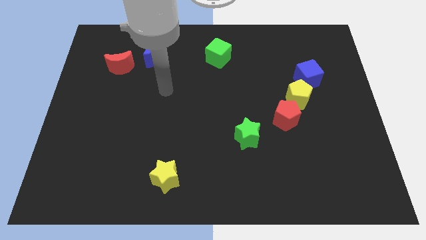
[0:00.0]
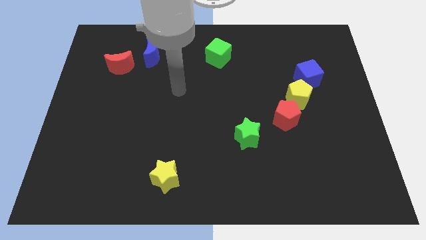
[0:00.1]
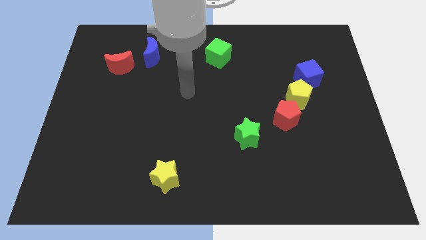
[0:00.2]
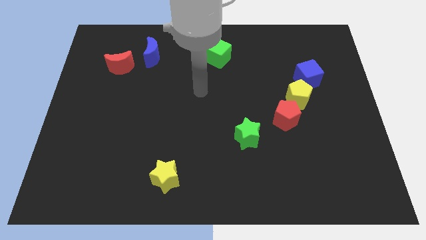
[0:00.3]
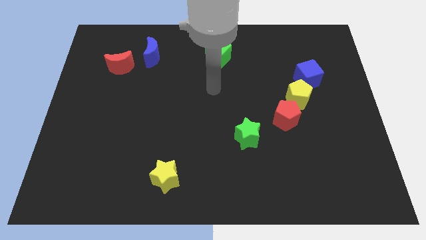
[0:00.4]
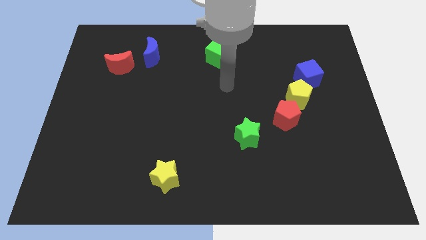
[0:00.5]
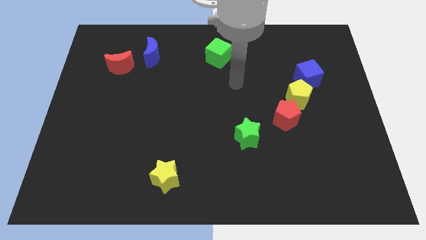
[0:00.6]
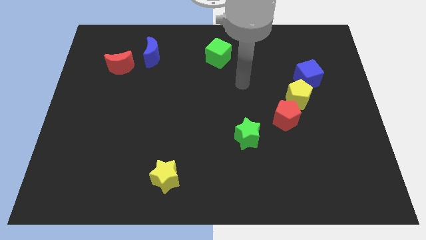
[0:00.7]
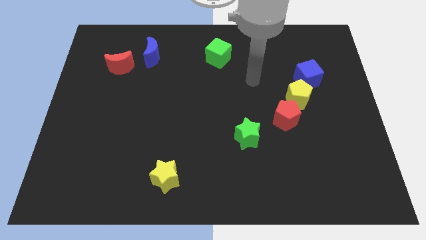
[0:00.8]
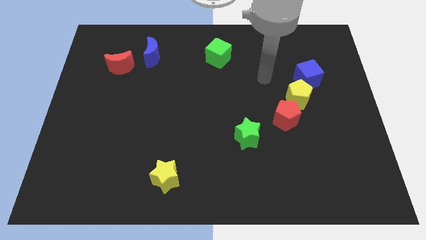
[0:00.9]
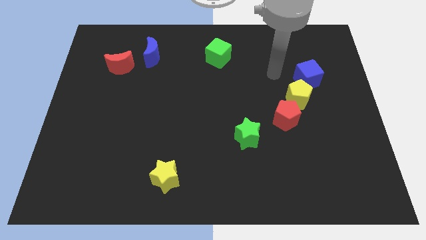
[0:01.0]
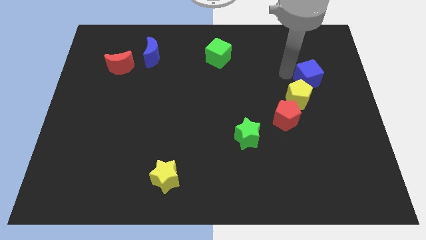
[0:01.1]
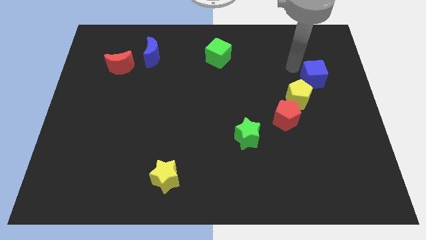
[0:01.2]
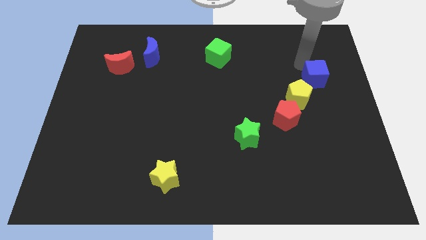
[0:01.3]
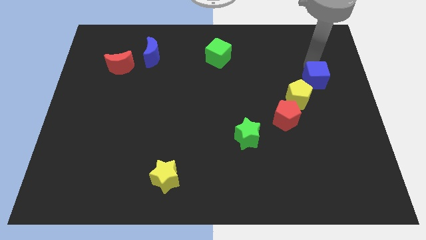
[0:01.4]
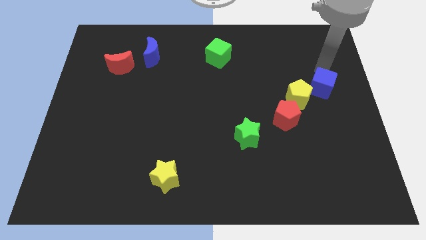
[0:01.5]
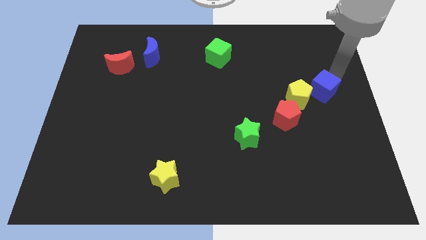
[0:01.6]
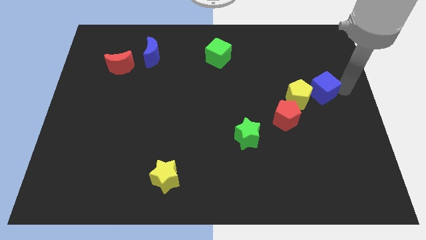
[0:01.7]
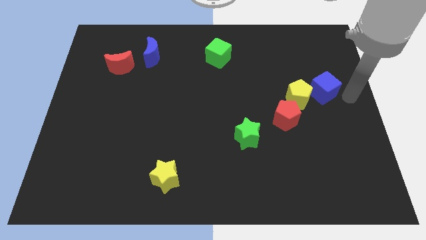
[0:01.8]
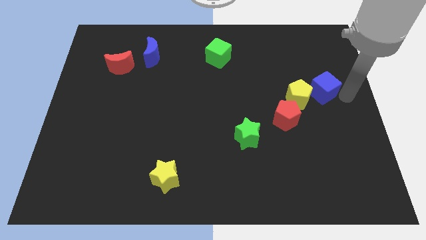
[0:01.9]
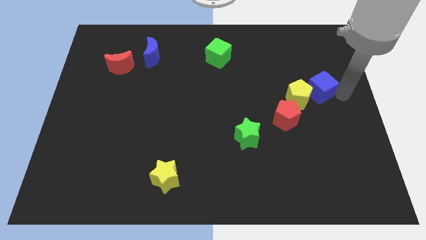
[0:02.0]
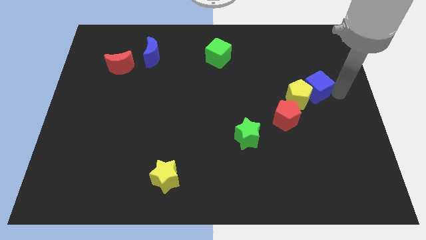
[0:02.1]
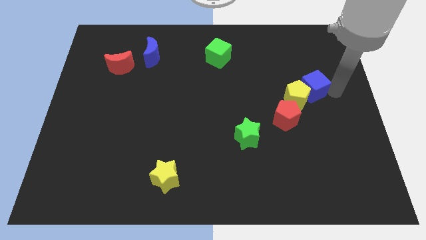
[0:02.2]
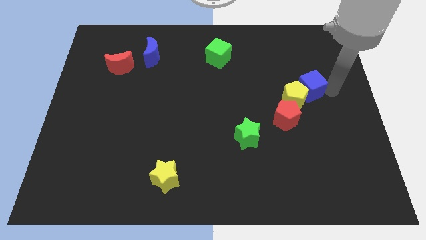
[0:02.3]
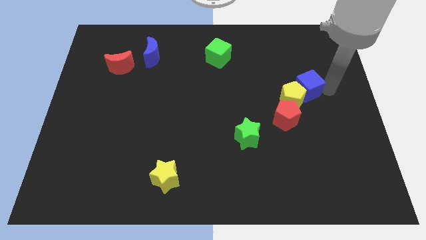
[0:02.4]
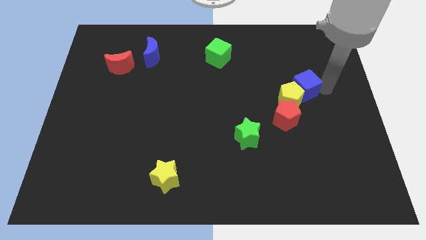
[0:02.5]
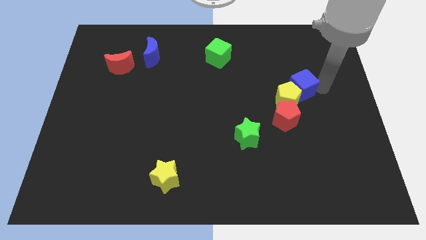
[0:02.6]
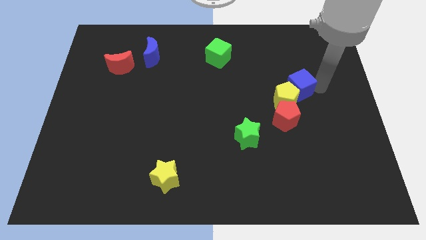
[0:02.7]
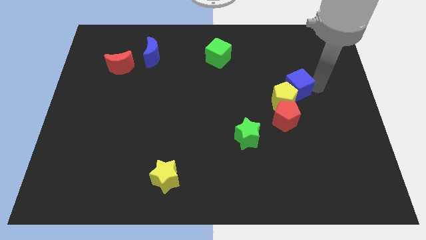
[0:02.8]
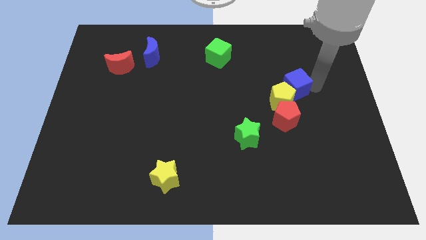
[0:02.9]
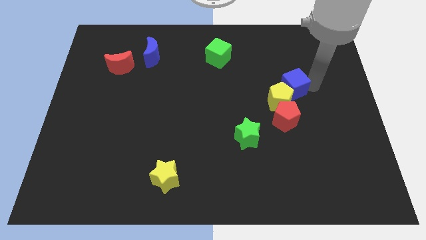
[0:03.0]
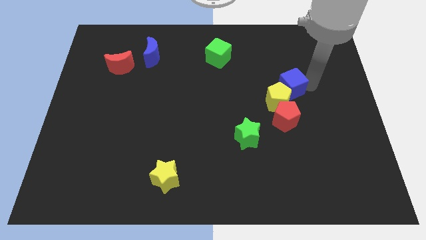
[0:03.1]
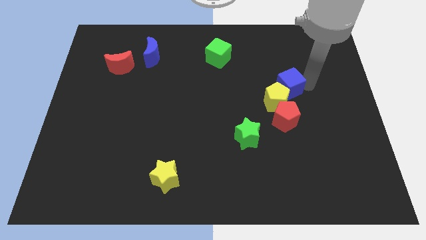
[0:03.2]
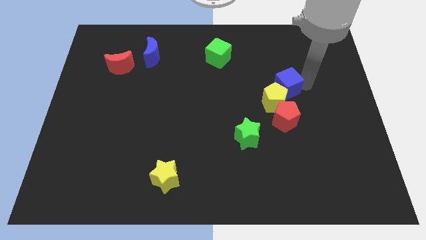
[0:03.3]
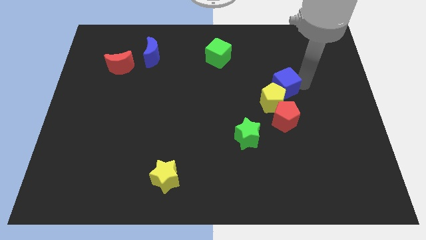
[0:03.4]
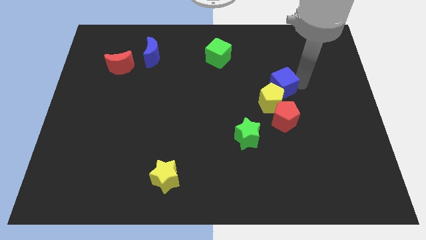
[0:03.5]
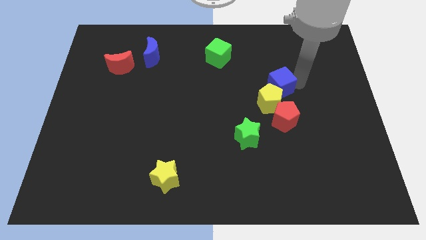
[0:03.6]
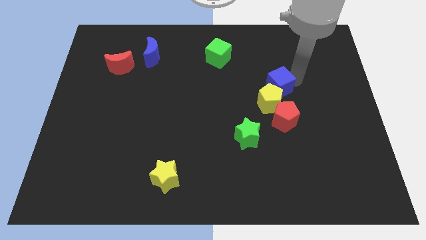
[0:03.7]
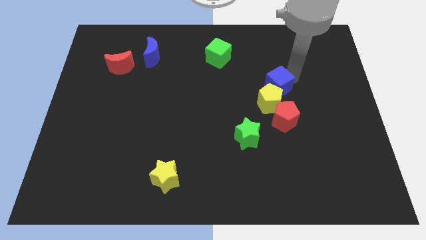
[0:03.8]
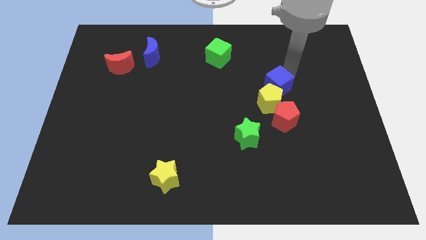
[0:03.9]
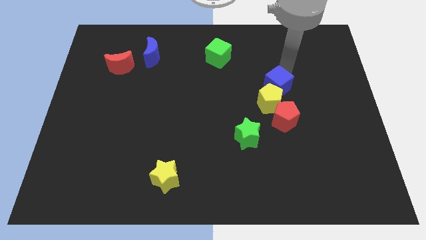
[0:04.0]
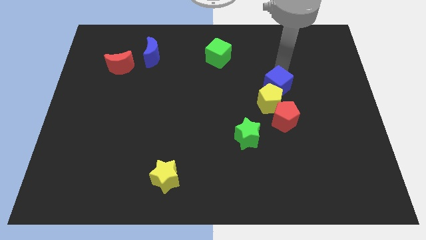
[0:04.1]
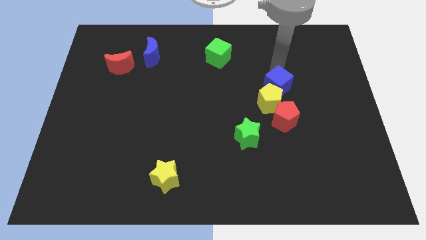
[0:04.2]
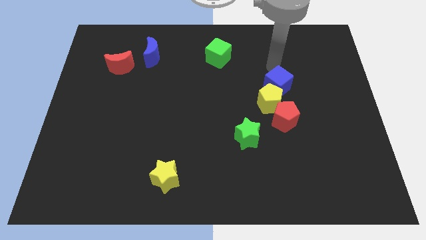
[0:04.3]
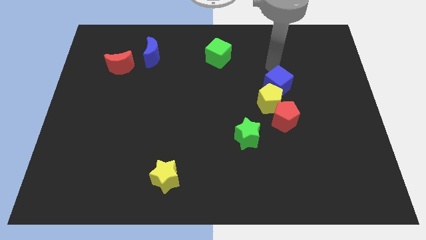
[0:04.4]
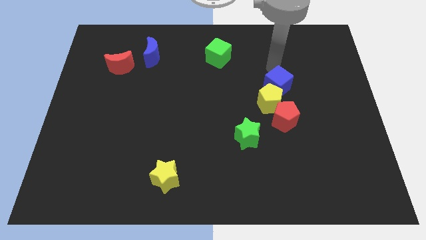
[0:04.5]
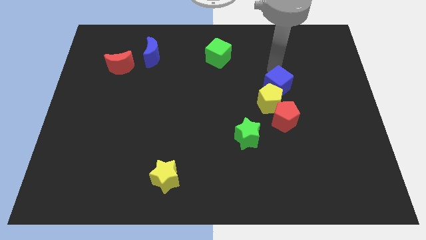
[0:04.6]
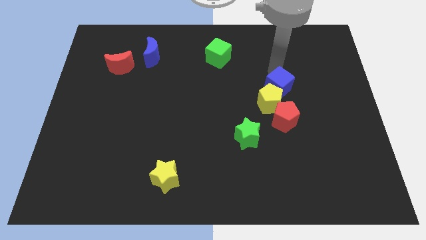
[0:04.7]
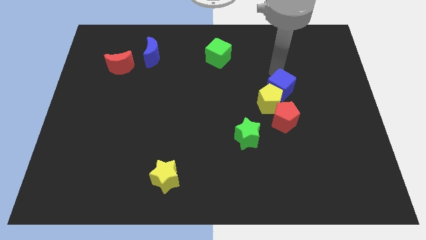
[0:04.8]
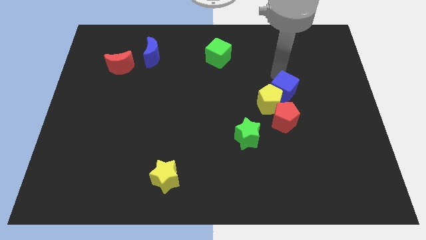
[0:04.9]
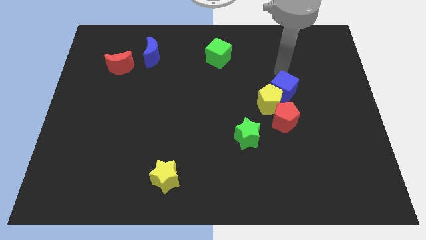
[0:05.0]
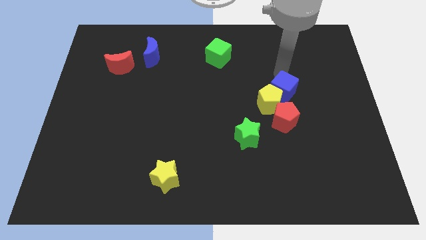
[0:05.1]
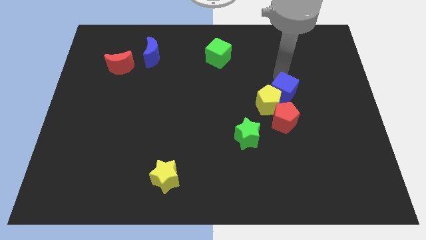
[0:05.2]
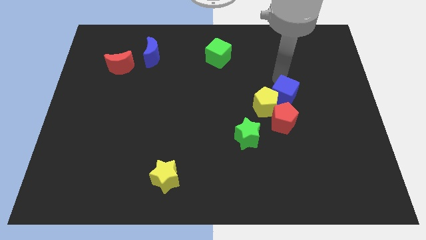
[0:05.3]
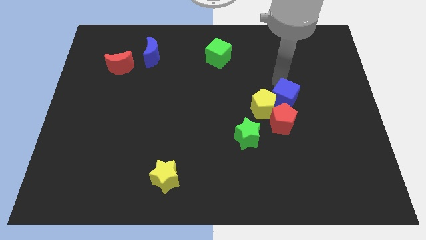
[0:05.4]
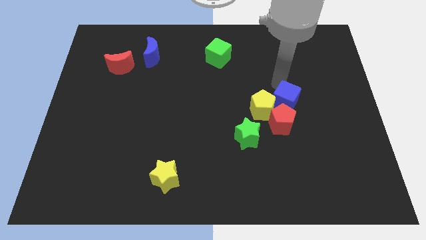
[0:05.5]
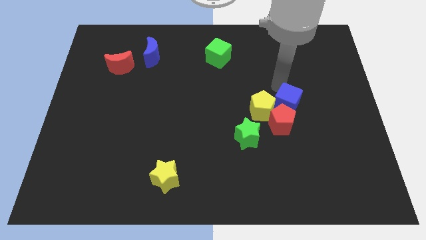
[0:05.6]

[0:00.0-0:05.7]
push the blue cube close to the red pentagon

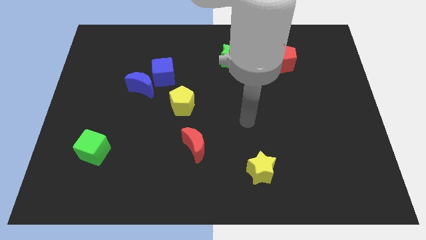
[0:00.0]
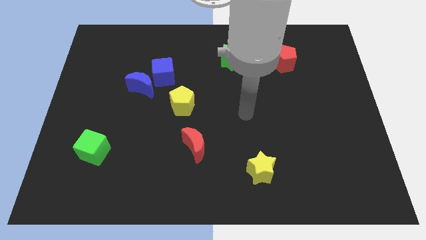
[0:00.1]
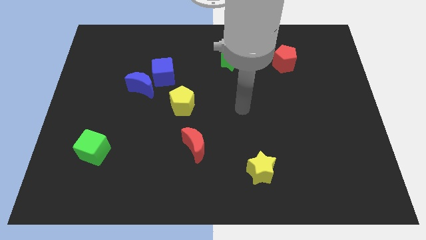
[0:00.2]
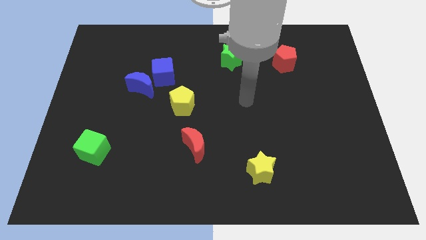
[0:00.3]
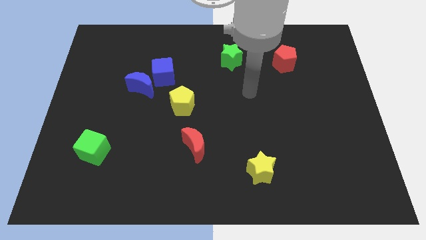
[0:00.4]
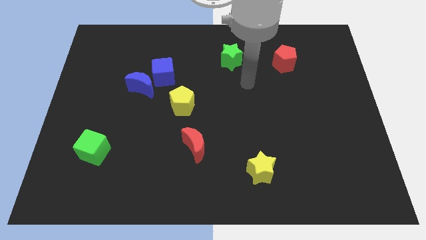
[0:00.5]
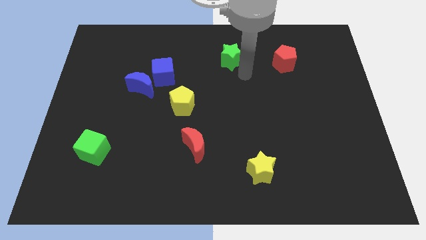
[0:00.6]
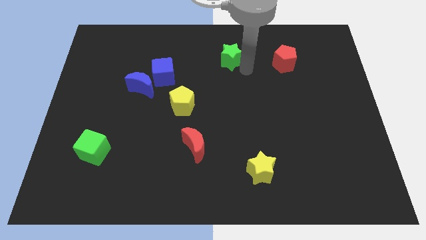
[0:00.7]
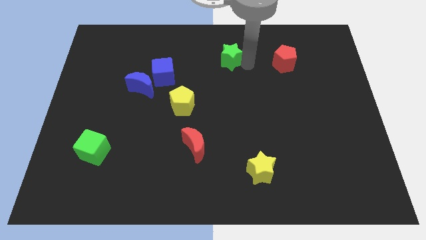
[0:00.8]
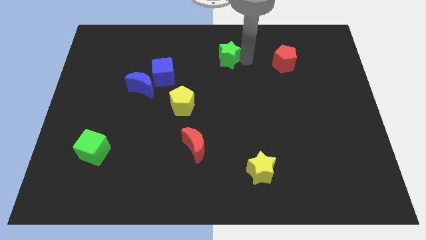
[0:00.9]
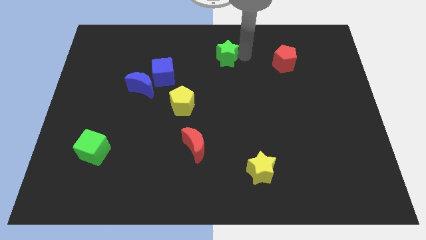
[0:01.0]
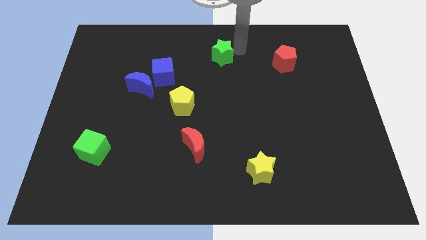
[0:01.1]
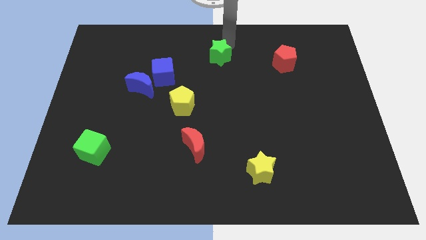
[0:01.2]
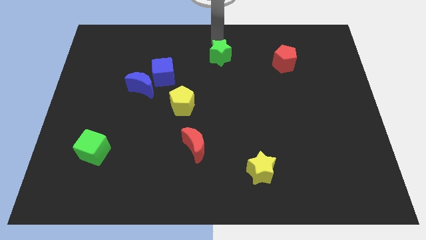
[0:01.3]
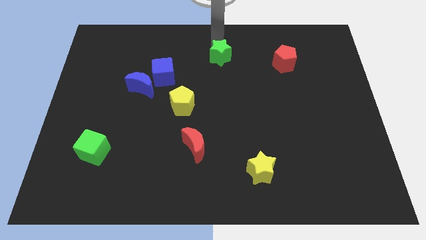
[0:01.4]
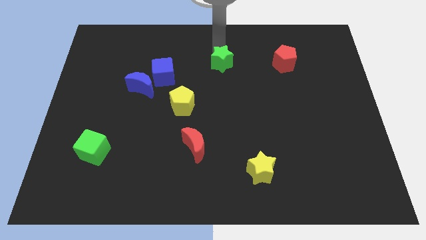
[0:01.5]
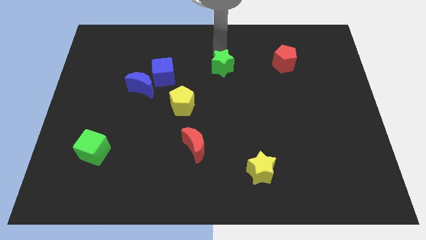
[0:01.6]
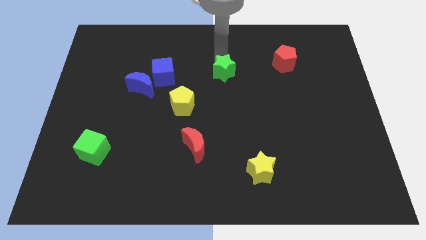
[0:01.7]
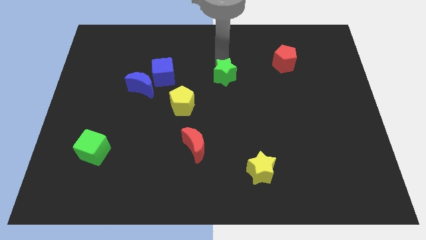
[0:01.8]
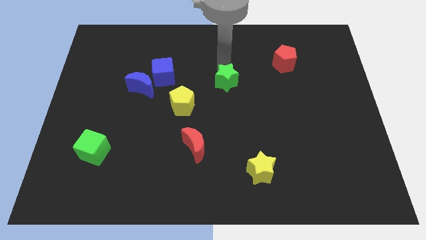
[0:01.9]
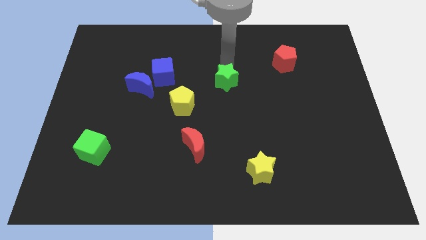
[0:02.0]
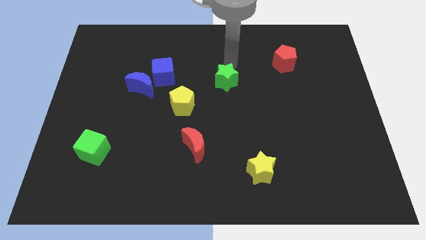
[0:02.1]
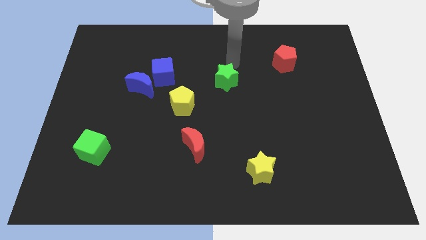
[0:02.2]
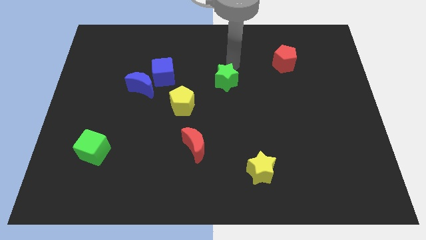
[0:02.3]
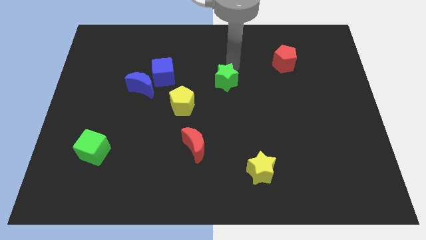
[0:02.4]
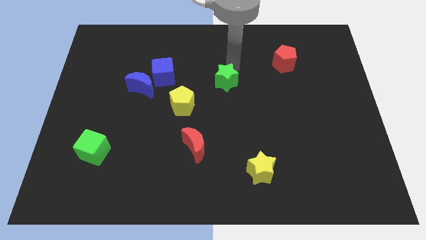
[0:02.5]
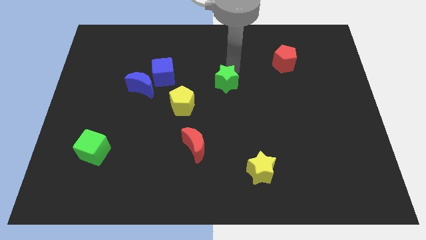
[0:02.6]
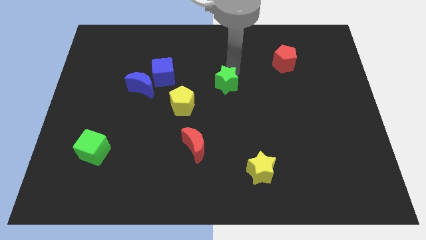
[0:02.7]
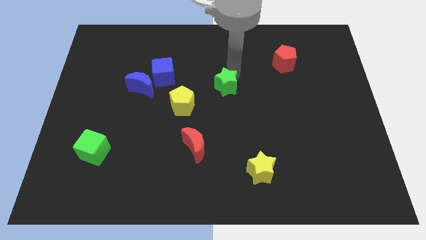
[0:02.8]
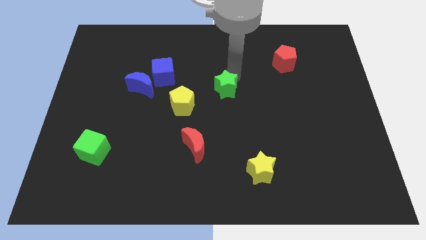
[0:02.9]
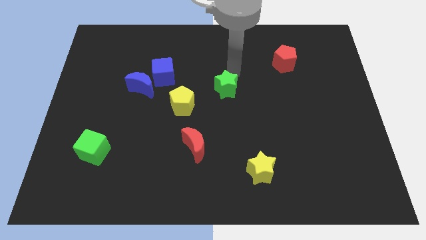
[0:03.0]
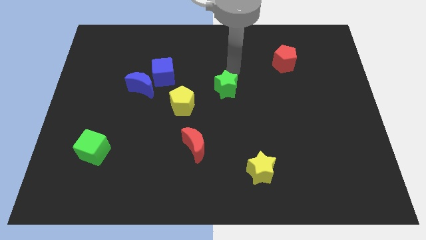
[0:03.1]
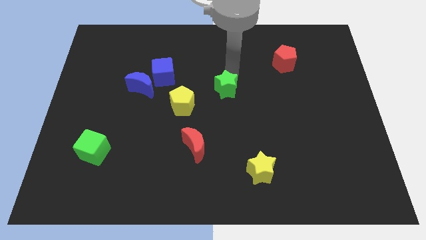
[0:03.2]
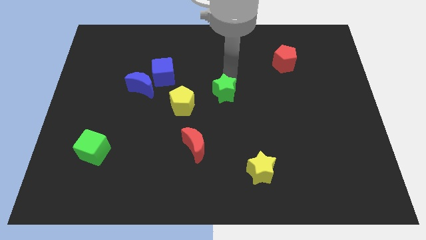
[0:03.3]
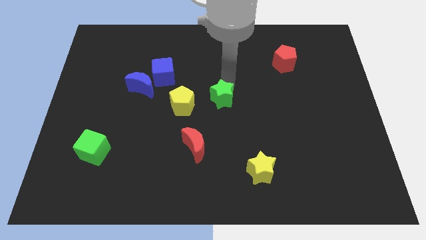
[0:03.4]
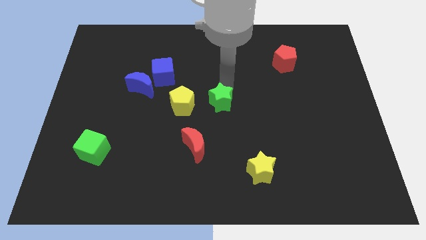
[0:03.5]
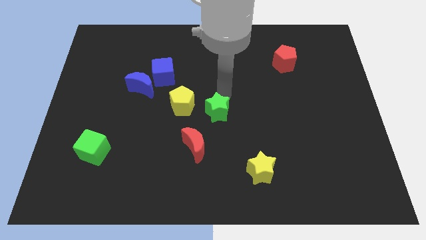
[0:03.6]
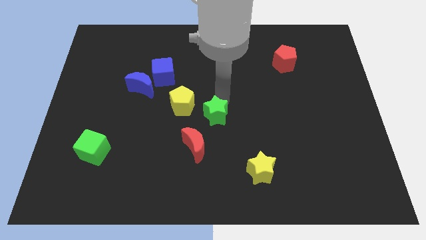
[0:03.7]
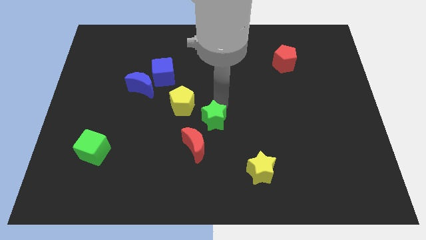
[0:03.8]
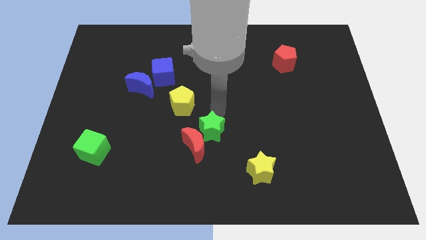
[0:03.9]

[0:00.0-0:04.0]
slide the green star towards the red moon
